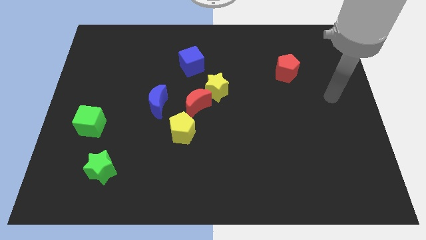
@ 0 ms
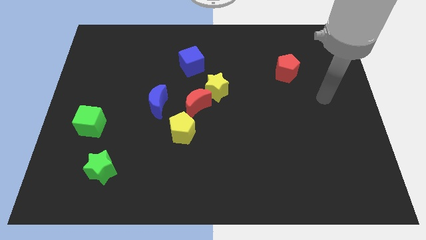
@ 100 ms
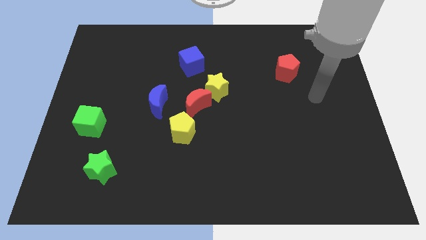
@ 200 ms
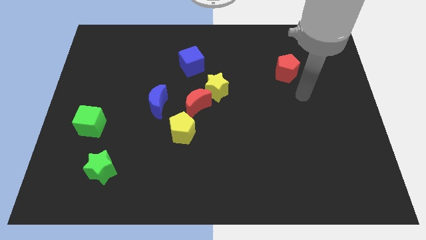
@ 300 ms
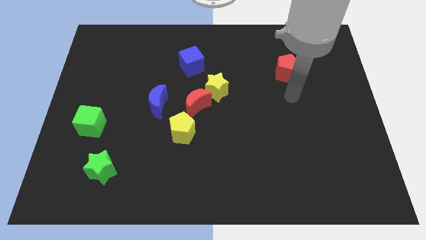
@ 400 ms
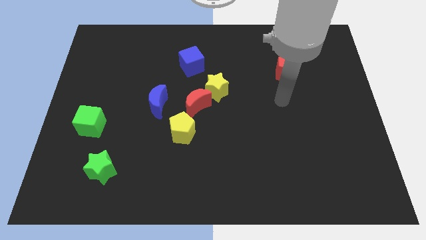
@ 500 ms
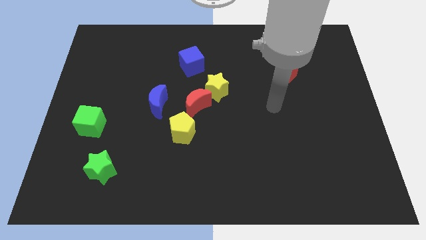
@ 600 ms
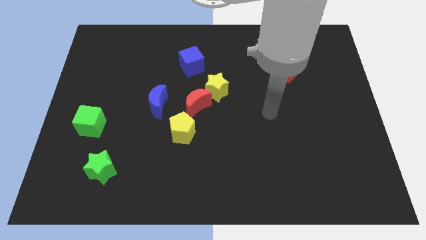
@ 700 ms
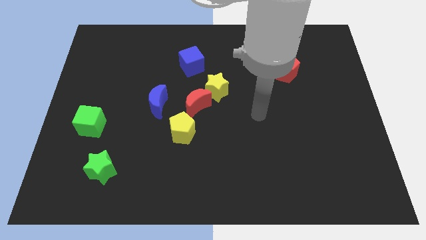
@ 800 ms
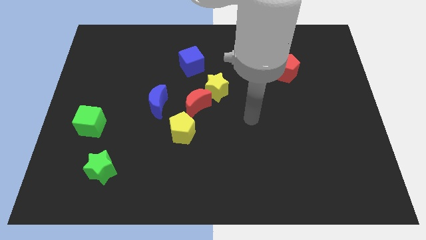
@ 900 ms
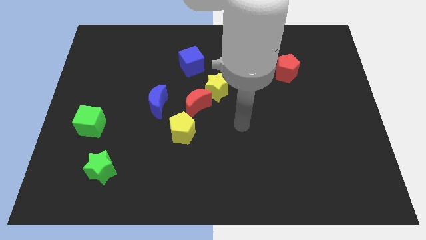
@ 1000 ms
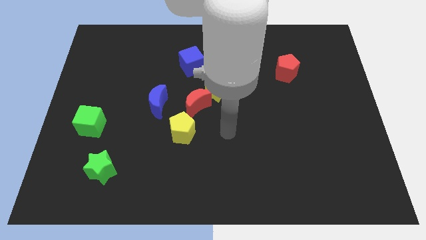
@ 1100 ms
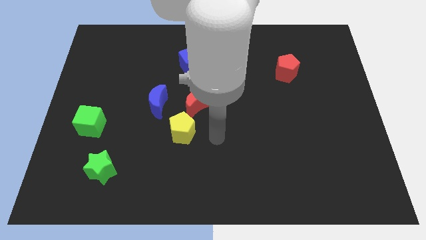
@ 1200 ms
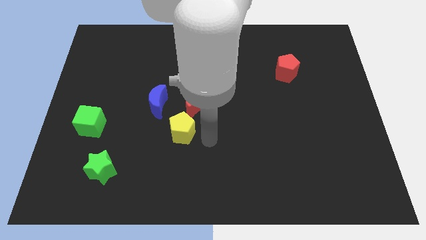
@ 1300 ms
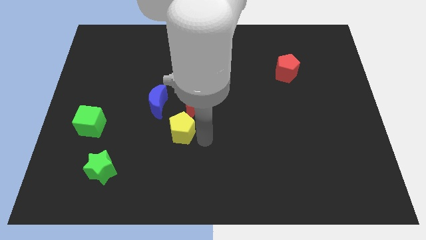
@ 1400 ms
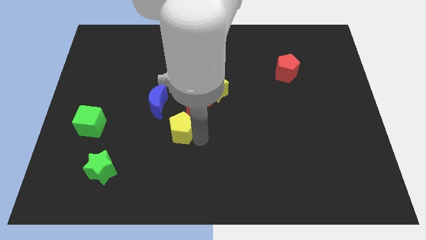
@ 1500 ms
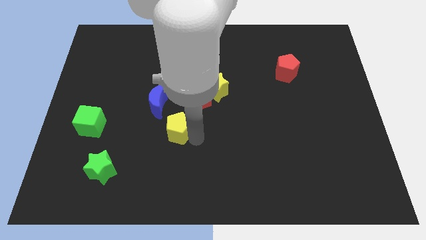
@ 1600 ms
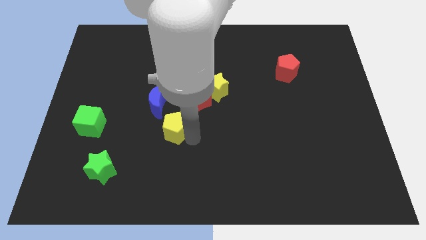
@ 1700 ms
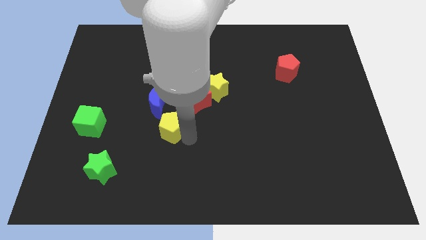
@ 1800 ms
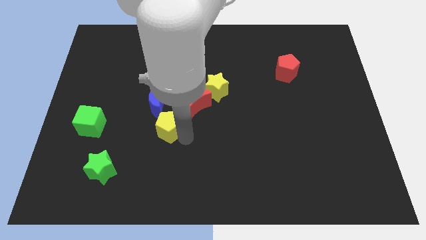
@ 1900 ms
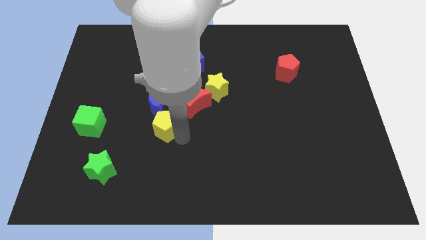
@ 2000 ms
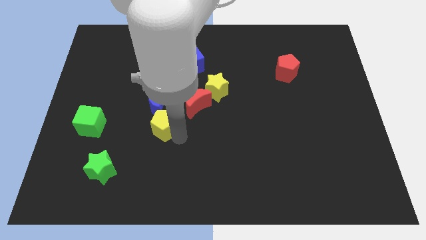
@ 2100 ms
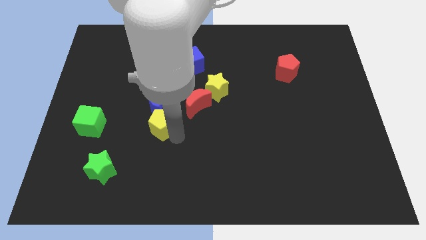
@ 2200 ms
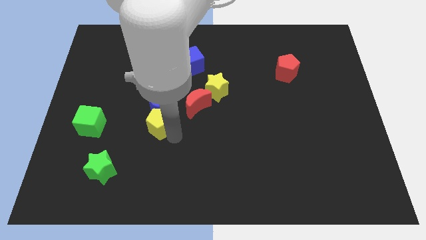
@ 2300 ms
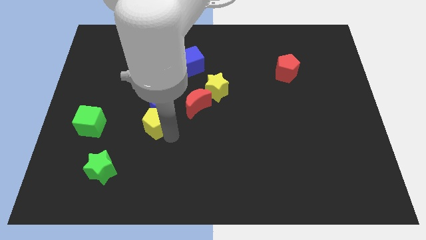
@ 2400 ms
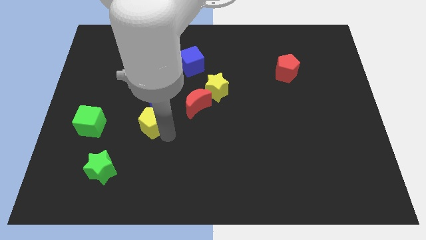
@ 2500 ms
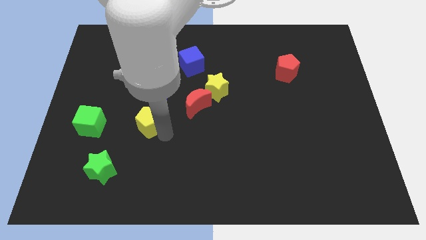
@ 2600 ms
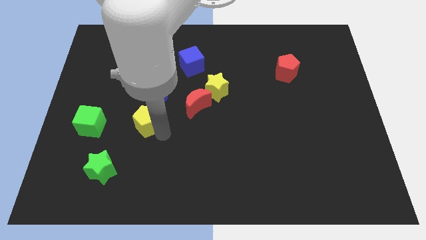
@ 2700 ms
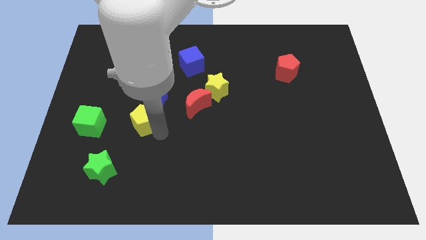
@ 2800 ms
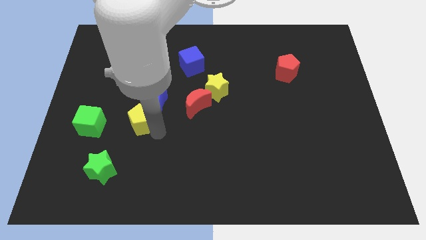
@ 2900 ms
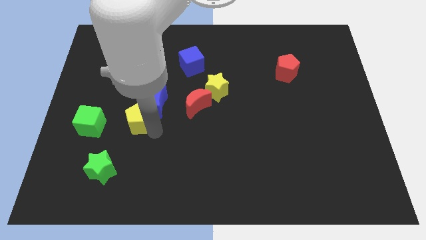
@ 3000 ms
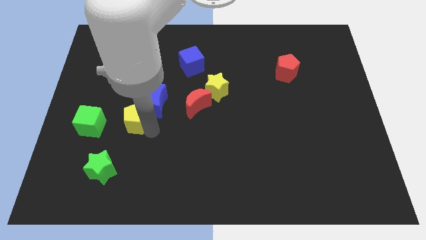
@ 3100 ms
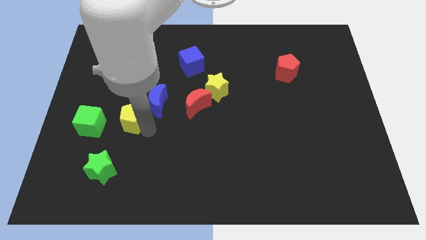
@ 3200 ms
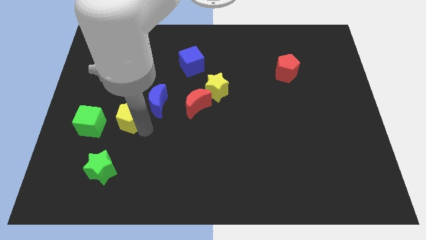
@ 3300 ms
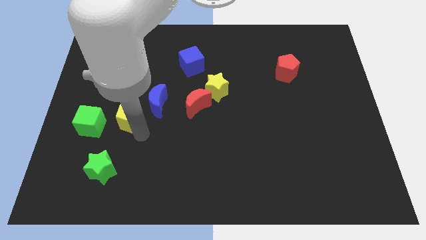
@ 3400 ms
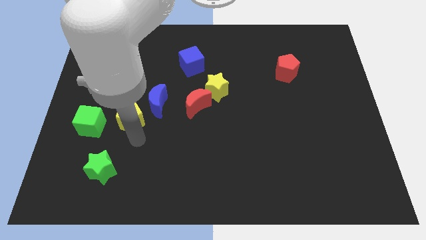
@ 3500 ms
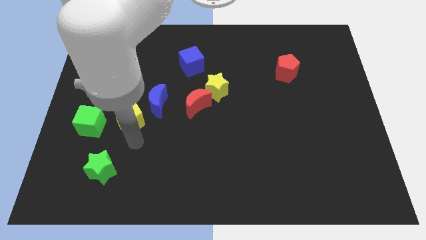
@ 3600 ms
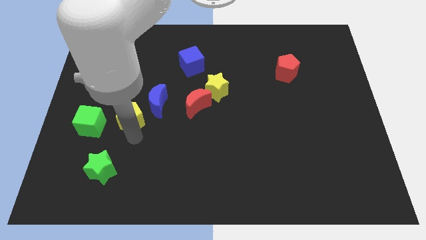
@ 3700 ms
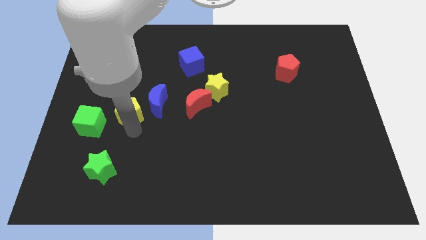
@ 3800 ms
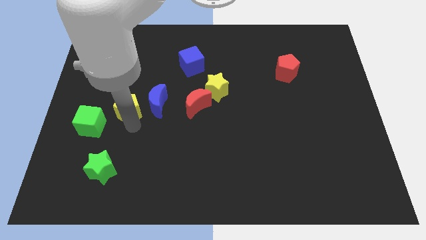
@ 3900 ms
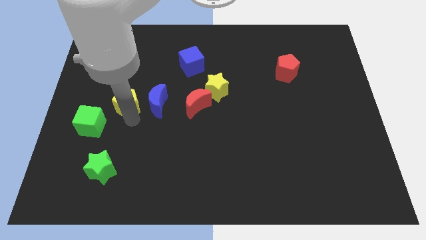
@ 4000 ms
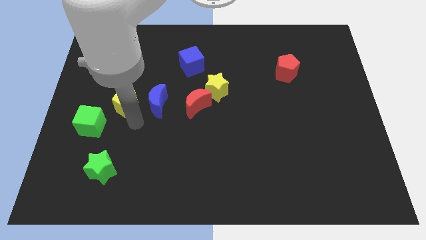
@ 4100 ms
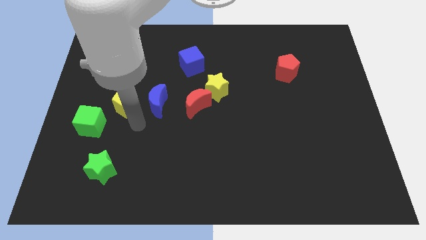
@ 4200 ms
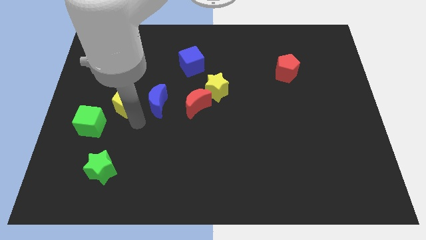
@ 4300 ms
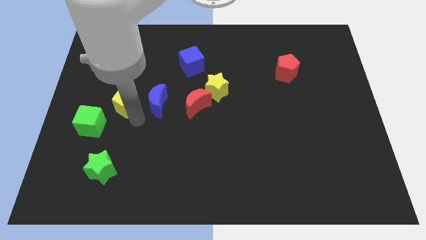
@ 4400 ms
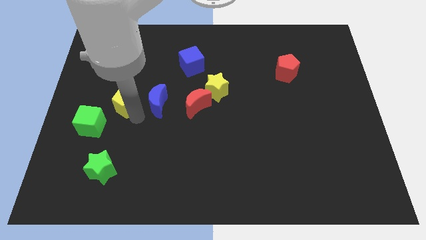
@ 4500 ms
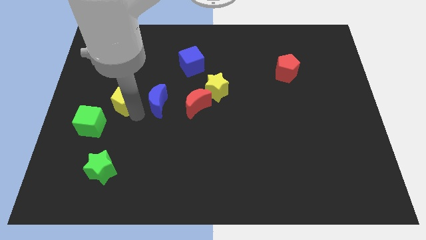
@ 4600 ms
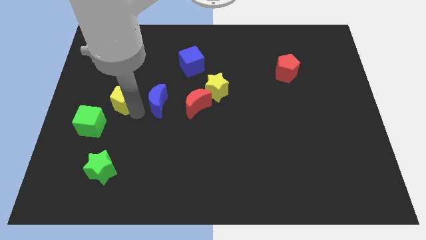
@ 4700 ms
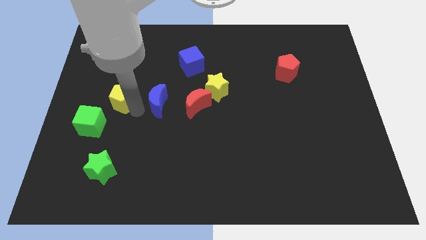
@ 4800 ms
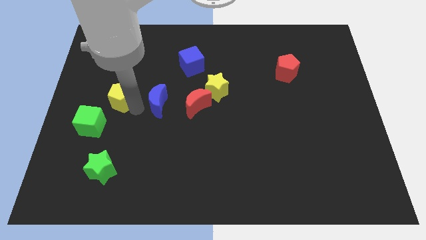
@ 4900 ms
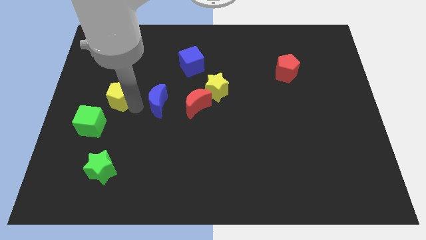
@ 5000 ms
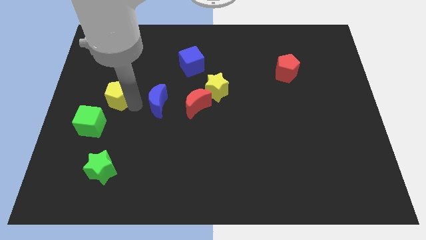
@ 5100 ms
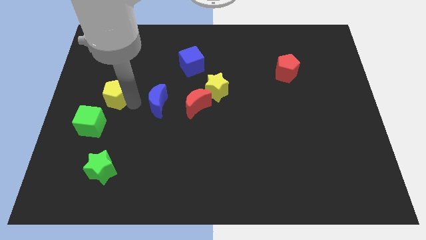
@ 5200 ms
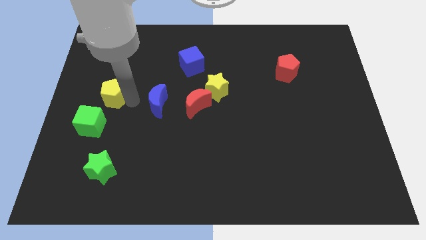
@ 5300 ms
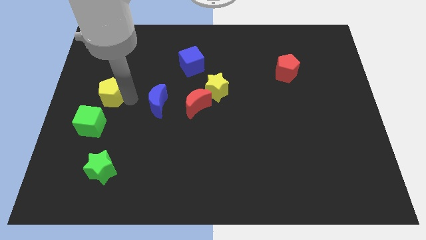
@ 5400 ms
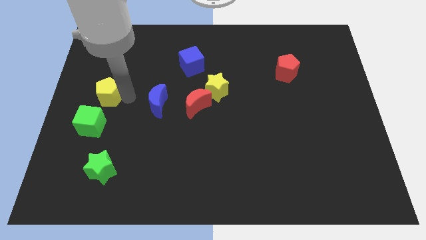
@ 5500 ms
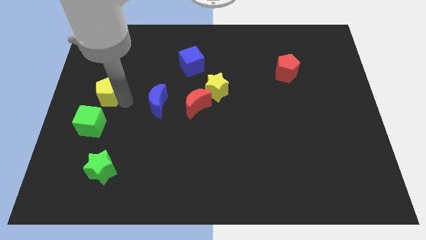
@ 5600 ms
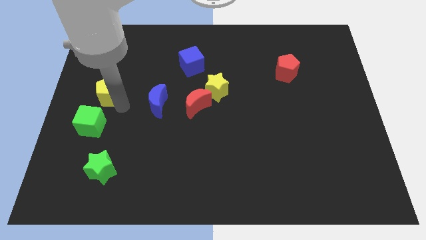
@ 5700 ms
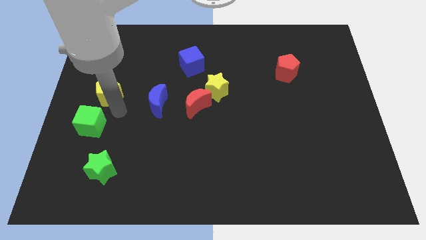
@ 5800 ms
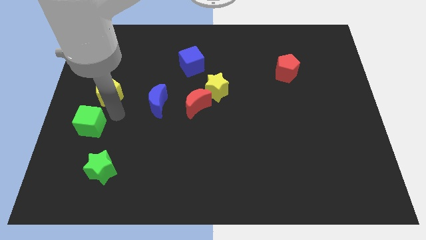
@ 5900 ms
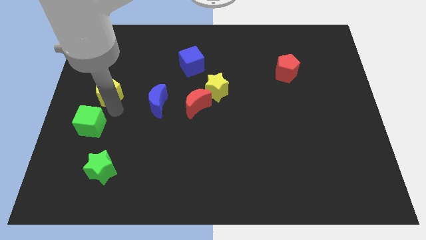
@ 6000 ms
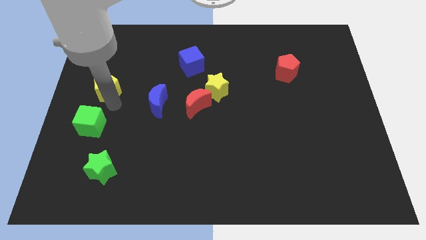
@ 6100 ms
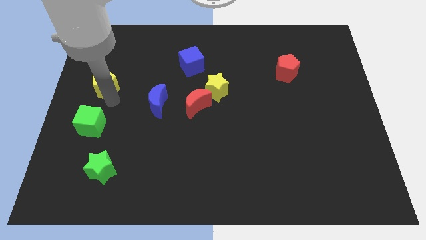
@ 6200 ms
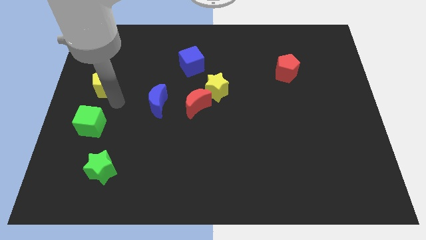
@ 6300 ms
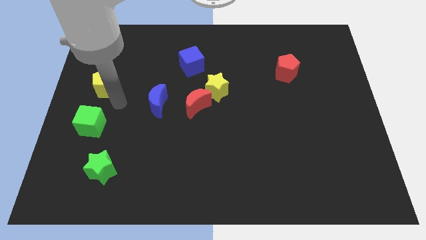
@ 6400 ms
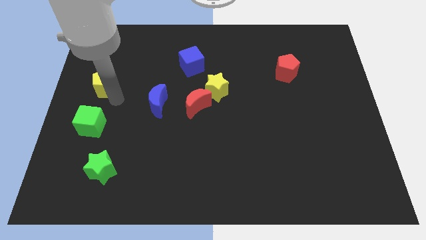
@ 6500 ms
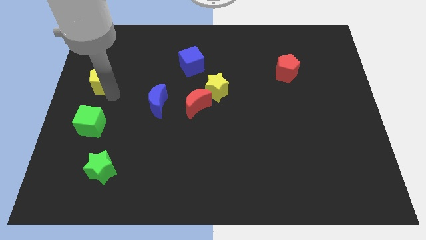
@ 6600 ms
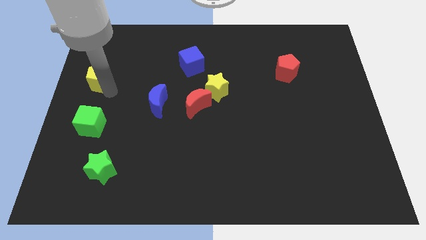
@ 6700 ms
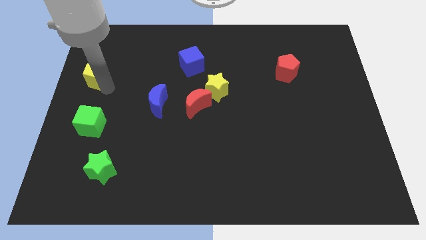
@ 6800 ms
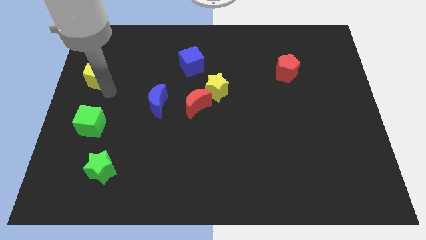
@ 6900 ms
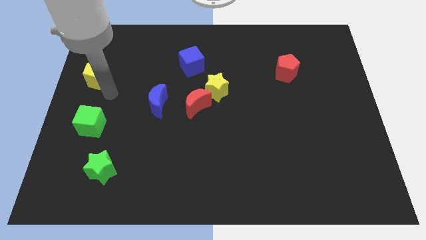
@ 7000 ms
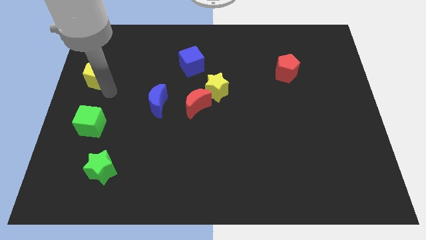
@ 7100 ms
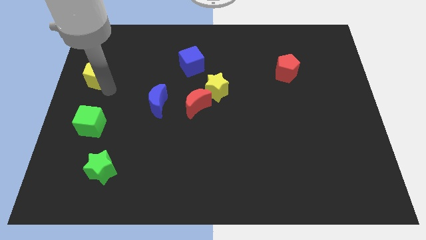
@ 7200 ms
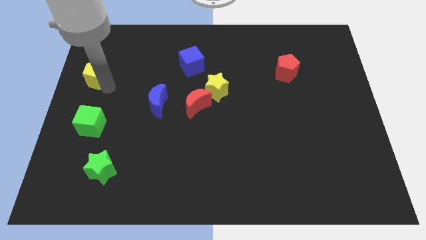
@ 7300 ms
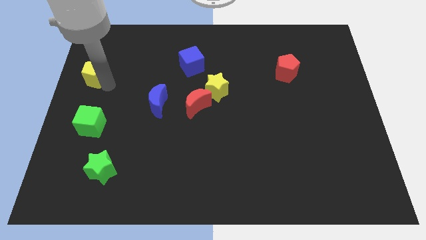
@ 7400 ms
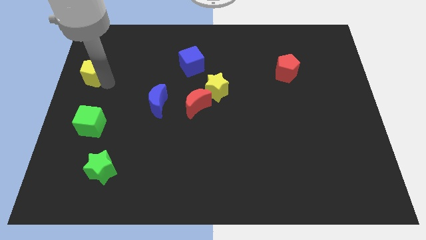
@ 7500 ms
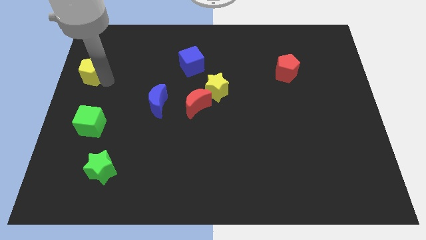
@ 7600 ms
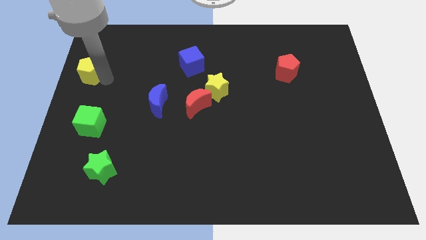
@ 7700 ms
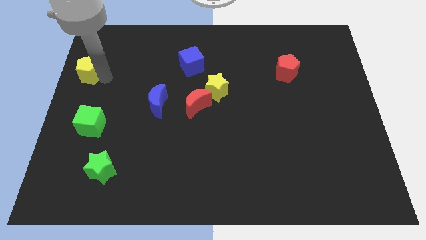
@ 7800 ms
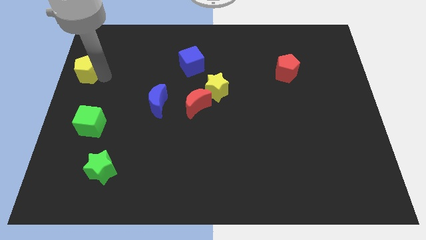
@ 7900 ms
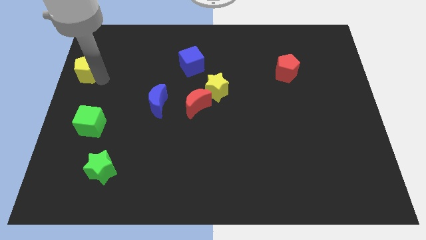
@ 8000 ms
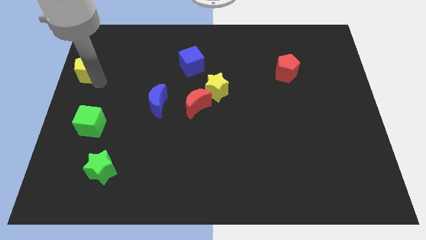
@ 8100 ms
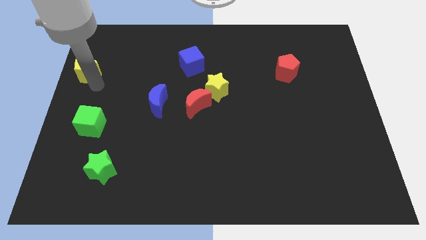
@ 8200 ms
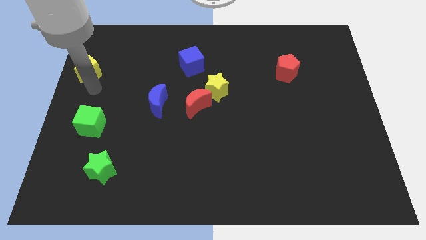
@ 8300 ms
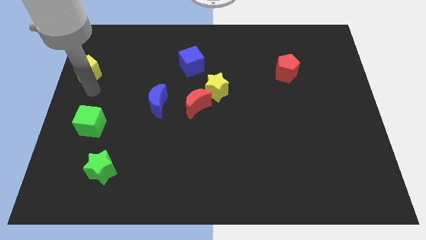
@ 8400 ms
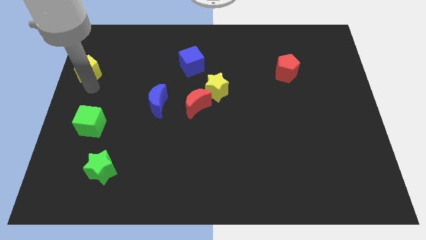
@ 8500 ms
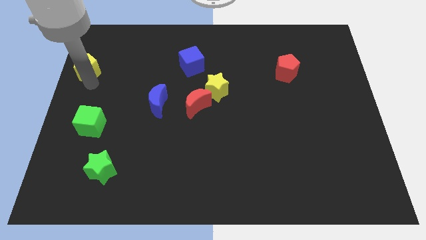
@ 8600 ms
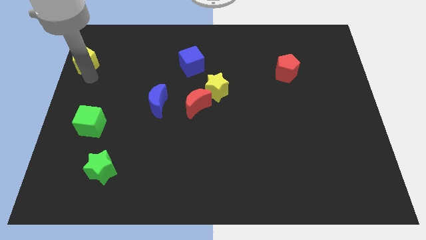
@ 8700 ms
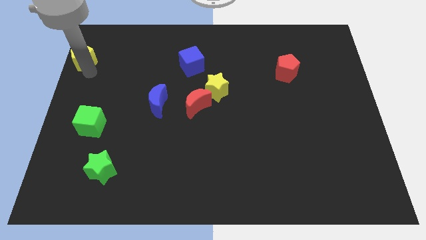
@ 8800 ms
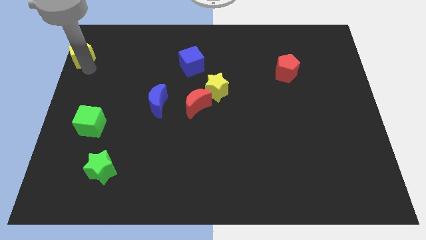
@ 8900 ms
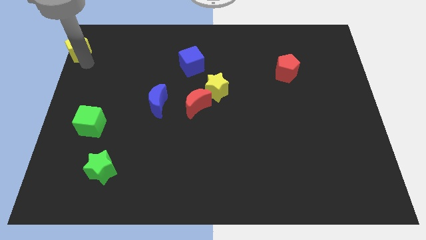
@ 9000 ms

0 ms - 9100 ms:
put the yellow pentagon to the top left corner
